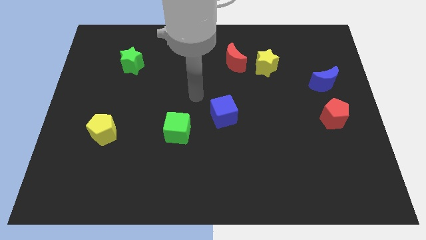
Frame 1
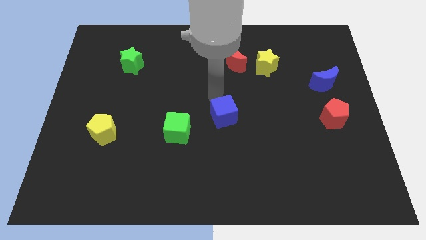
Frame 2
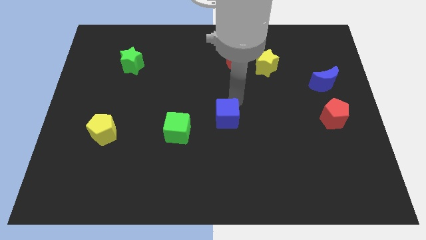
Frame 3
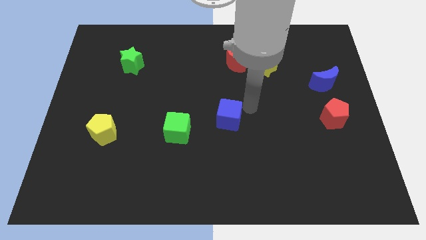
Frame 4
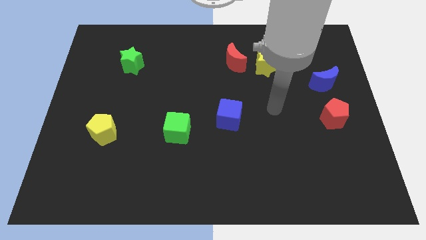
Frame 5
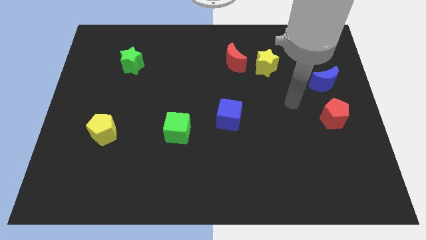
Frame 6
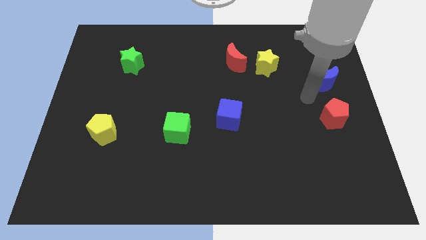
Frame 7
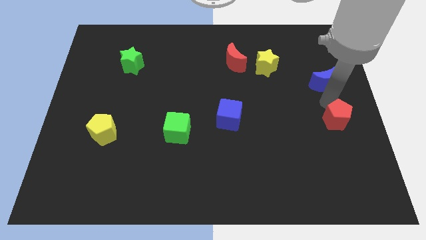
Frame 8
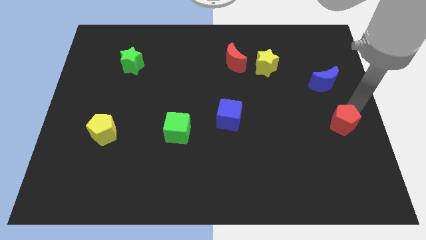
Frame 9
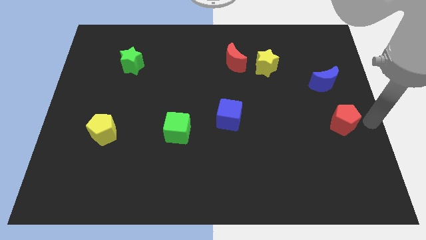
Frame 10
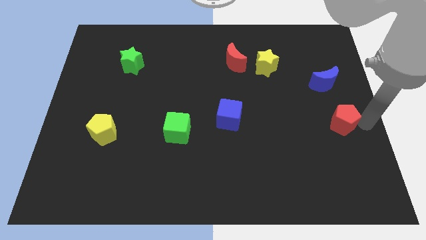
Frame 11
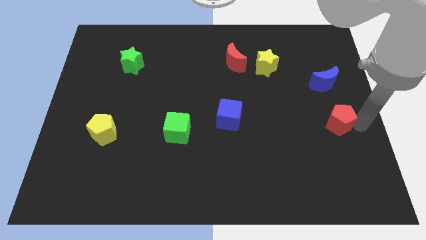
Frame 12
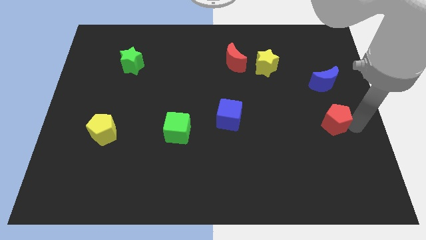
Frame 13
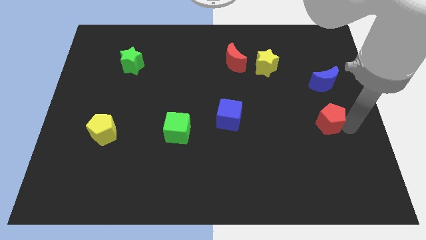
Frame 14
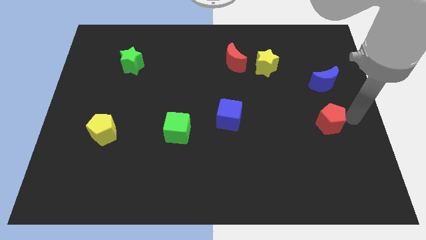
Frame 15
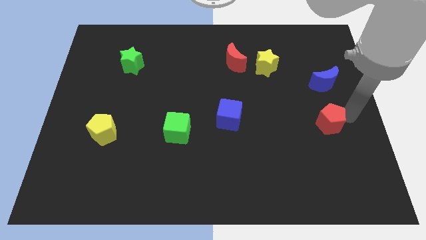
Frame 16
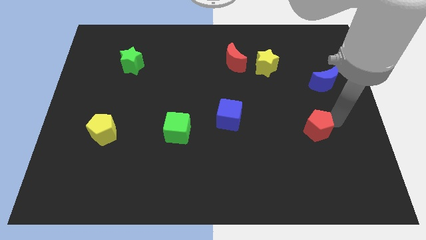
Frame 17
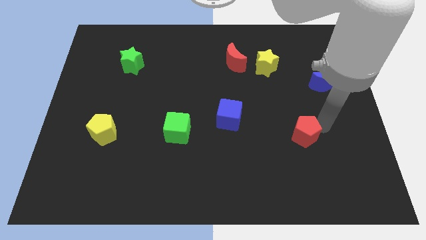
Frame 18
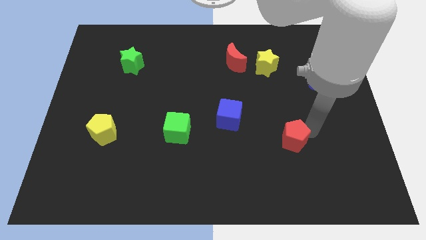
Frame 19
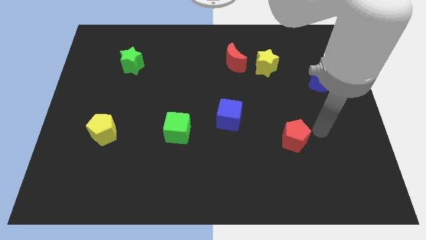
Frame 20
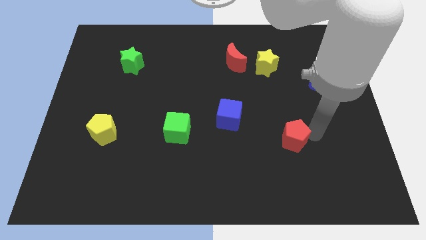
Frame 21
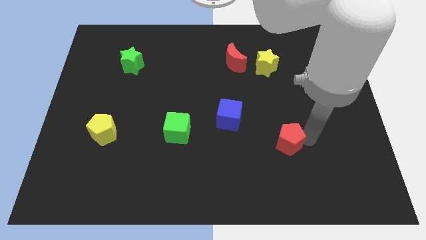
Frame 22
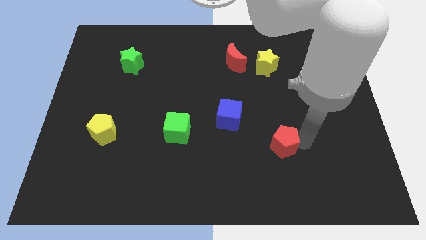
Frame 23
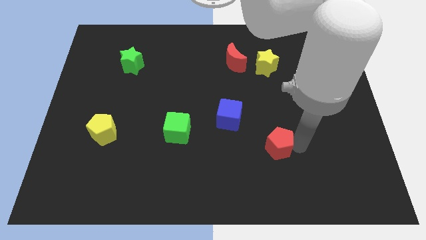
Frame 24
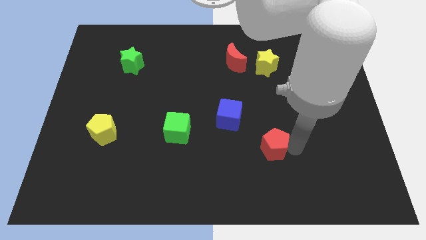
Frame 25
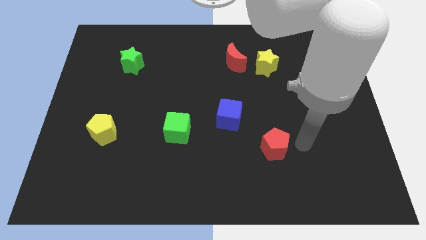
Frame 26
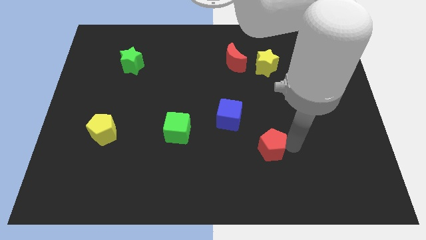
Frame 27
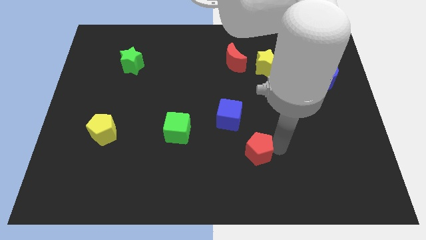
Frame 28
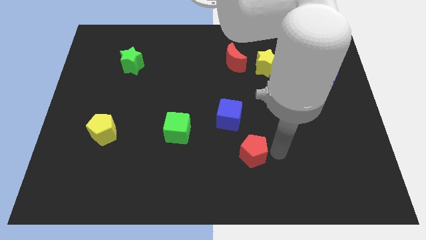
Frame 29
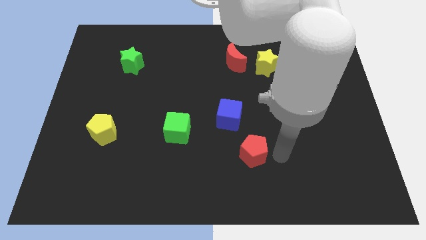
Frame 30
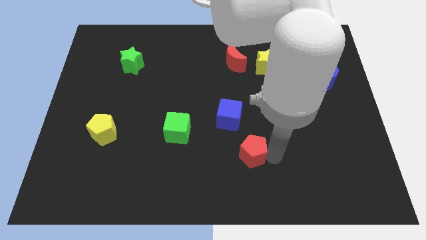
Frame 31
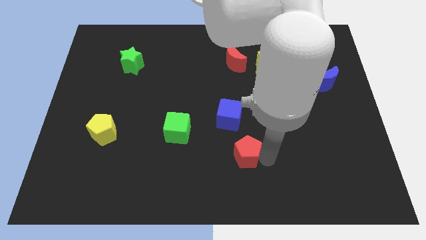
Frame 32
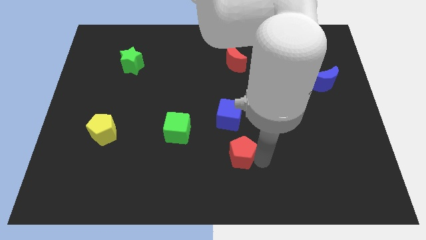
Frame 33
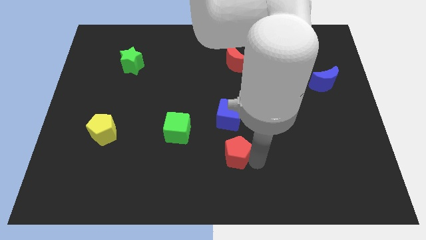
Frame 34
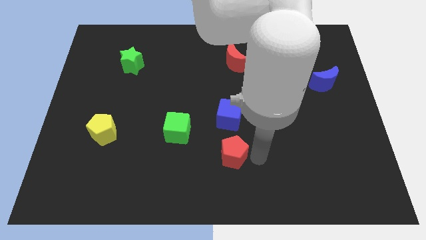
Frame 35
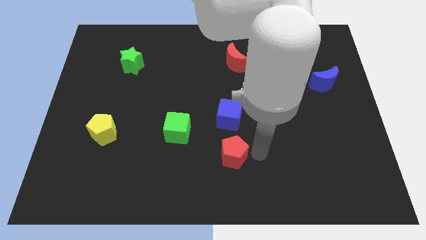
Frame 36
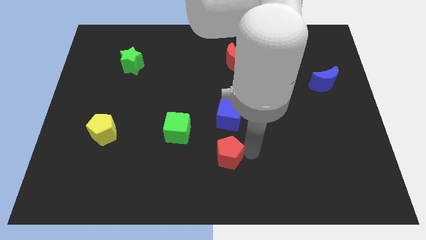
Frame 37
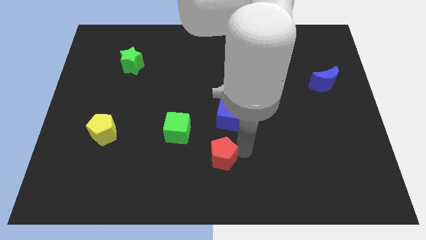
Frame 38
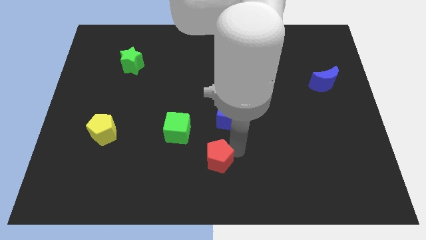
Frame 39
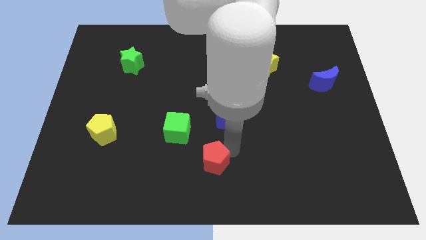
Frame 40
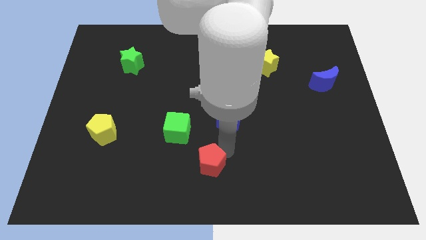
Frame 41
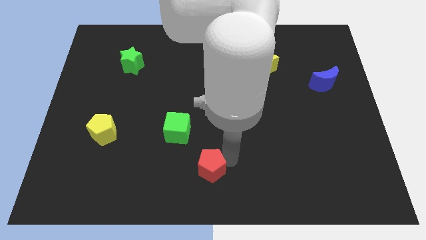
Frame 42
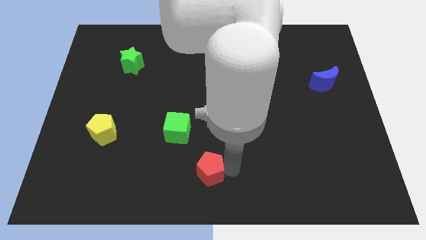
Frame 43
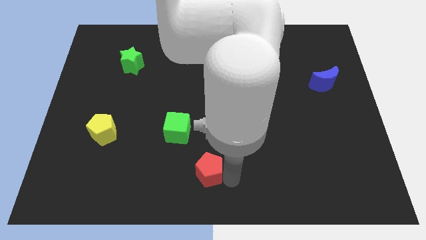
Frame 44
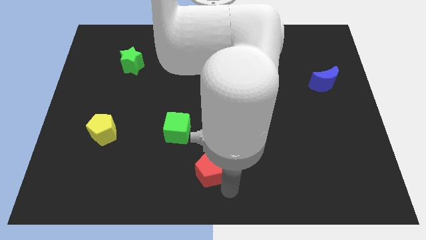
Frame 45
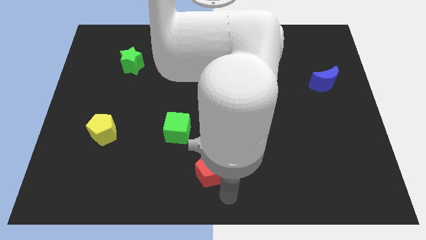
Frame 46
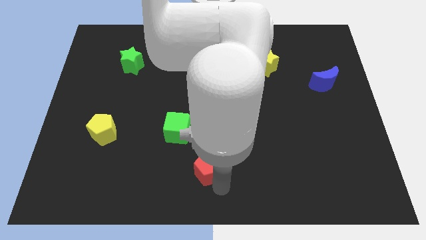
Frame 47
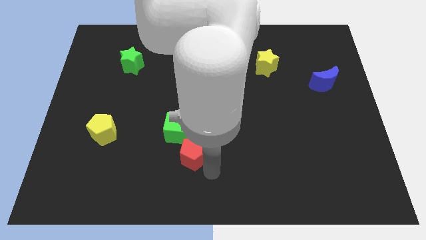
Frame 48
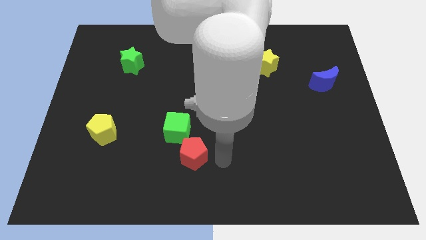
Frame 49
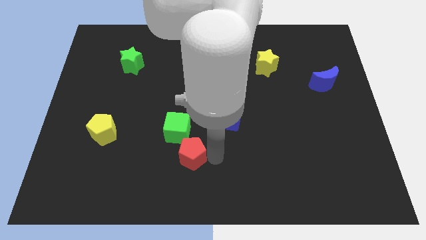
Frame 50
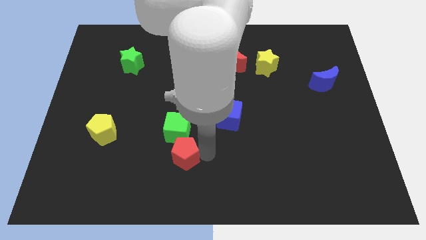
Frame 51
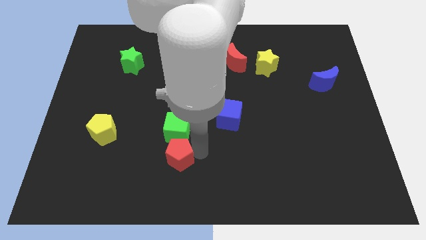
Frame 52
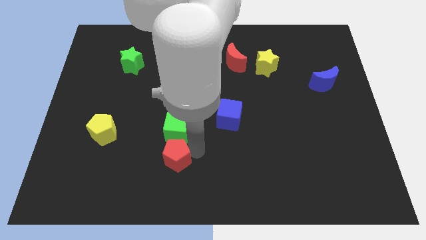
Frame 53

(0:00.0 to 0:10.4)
slide the red pentagon to the bottom left of the green cube

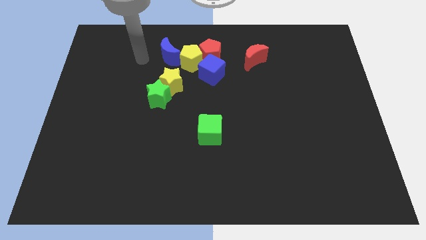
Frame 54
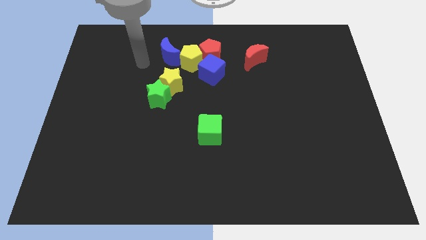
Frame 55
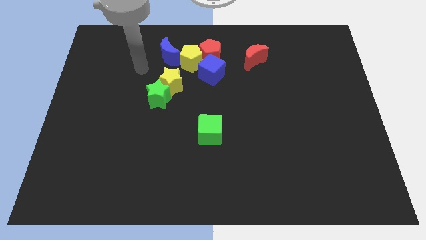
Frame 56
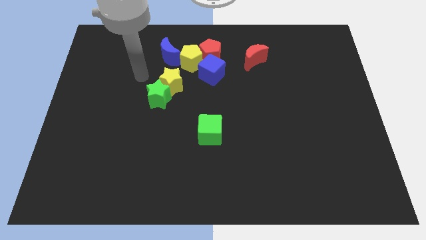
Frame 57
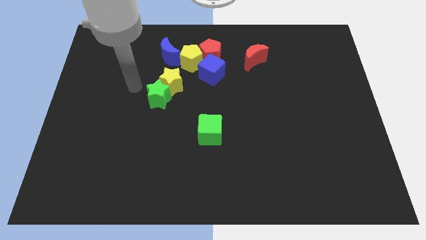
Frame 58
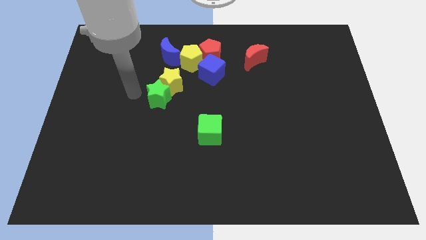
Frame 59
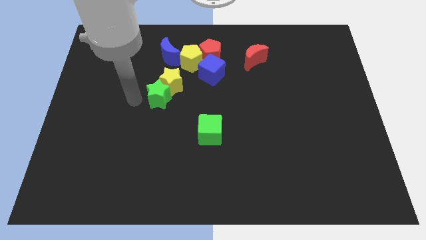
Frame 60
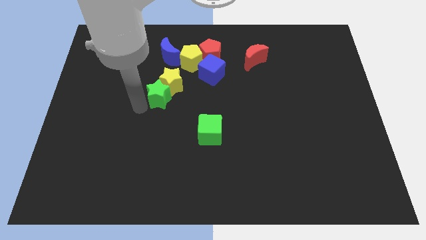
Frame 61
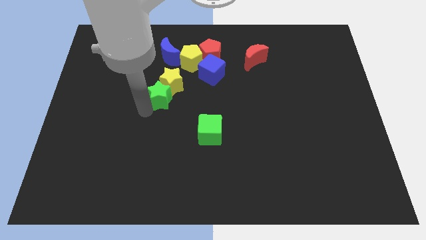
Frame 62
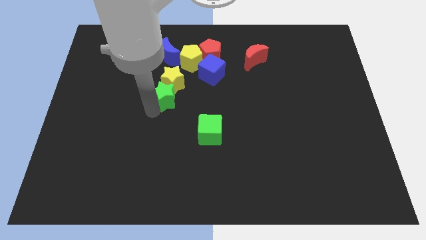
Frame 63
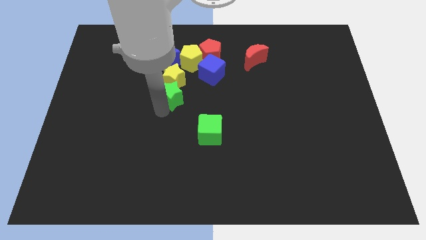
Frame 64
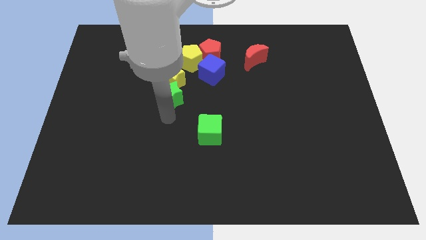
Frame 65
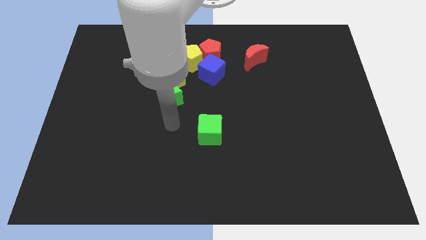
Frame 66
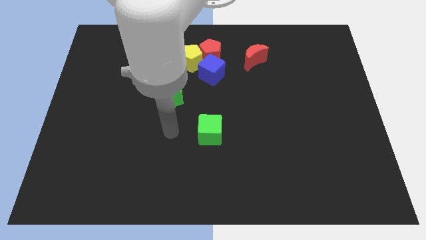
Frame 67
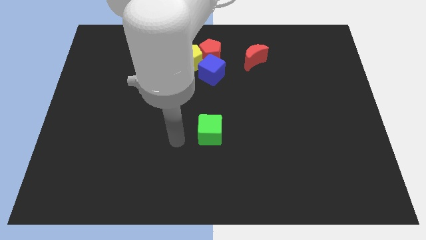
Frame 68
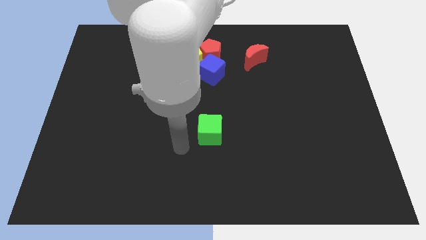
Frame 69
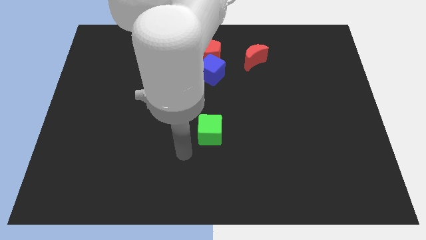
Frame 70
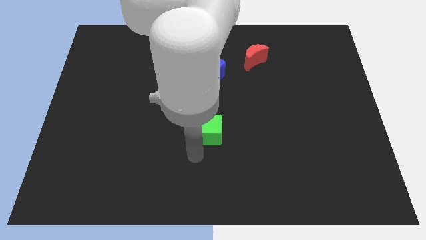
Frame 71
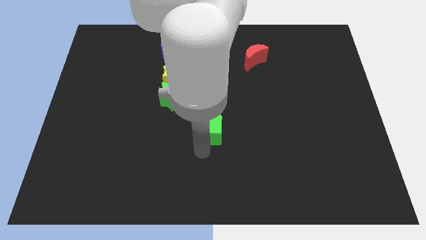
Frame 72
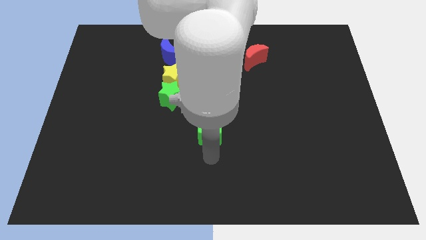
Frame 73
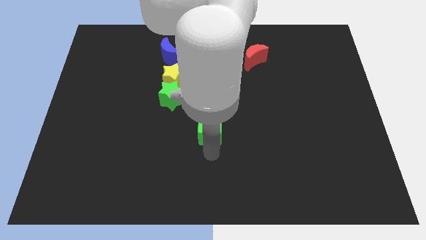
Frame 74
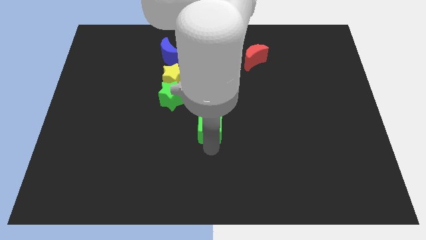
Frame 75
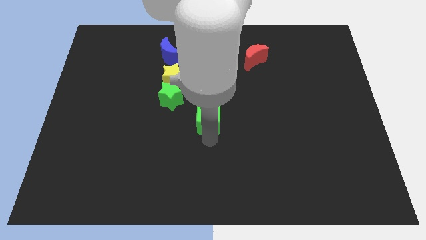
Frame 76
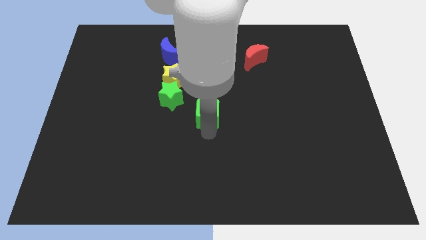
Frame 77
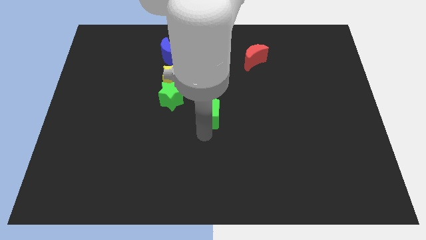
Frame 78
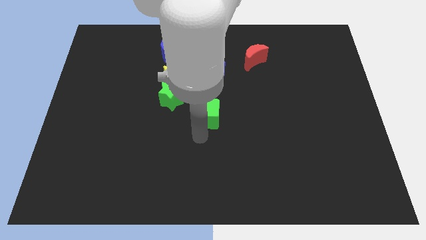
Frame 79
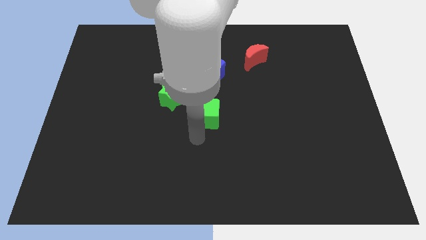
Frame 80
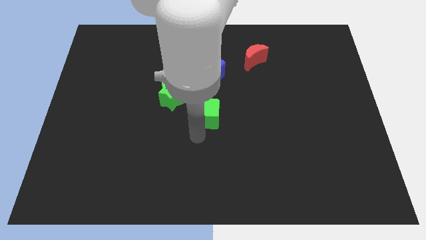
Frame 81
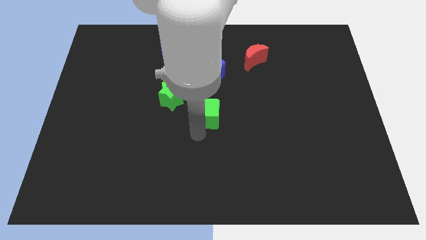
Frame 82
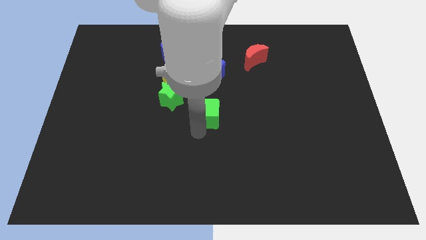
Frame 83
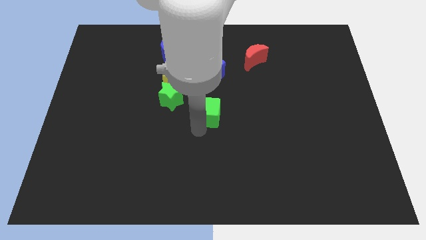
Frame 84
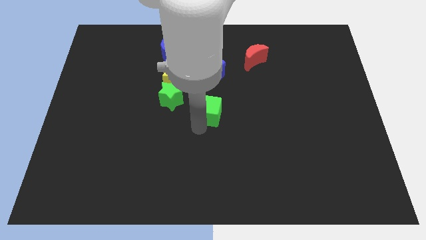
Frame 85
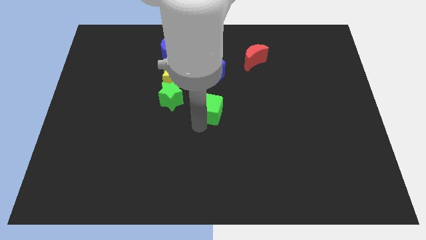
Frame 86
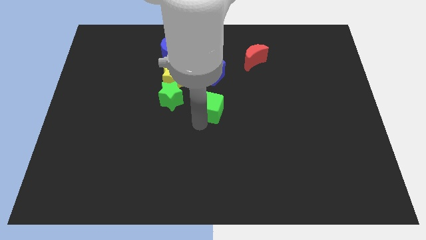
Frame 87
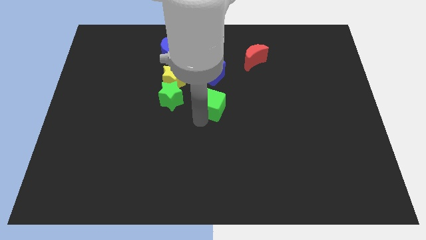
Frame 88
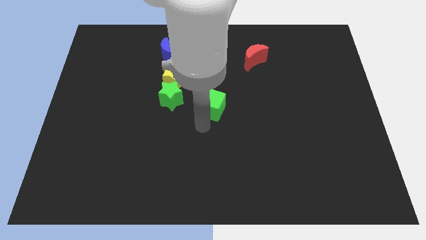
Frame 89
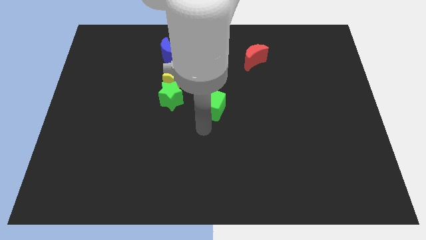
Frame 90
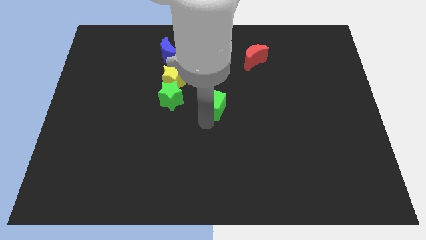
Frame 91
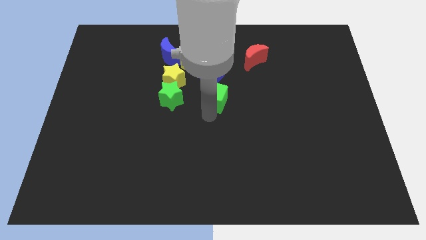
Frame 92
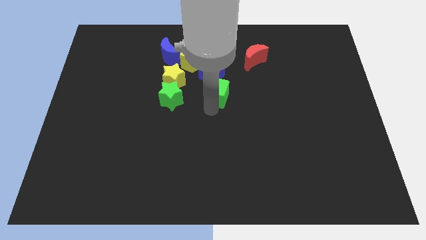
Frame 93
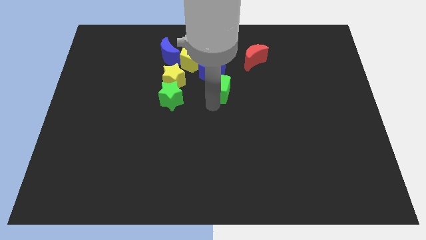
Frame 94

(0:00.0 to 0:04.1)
push the green cube diagonally down and to the right of the yellow pentagon
